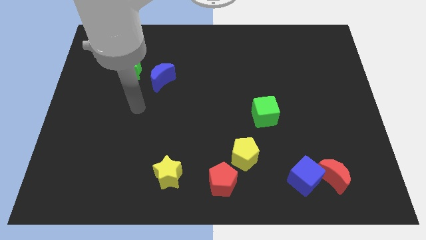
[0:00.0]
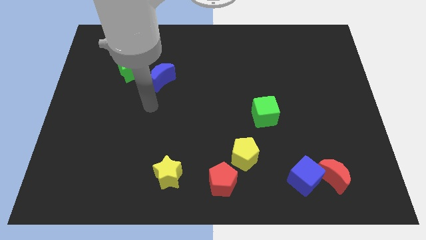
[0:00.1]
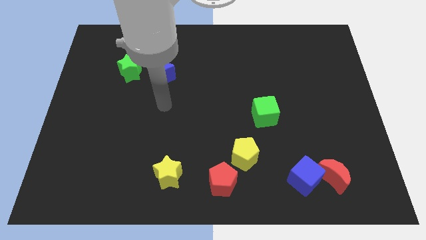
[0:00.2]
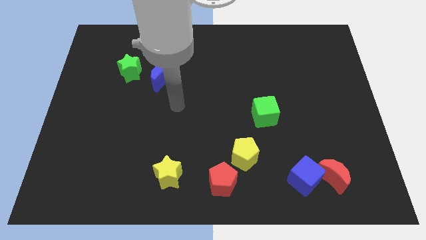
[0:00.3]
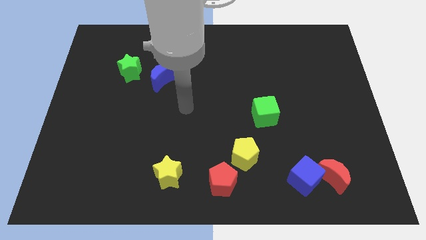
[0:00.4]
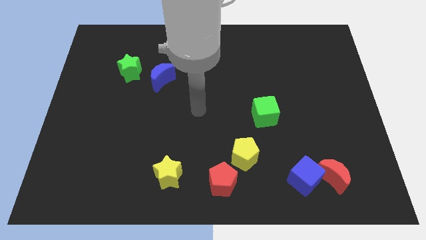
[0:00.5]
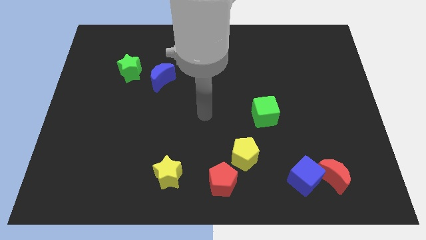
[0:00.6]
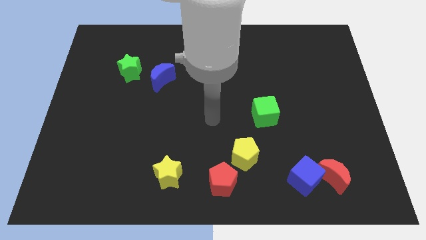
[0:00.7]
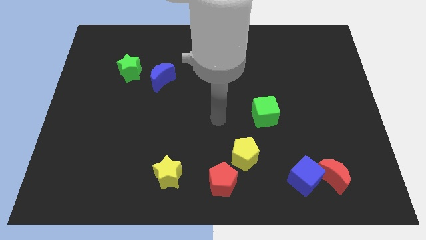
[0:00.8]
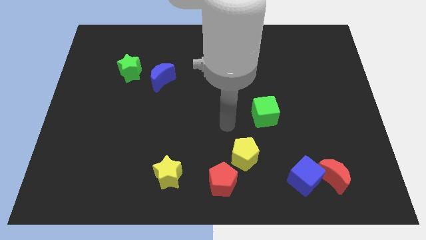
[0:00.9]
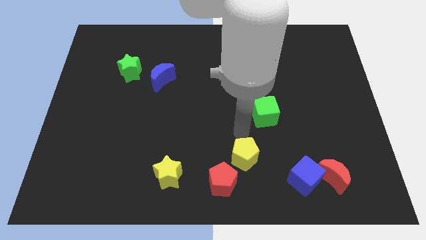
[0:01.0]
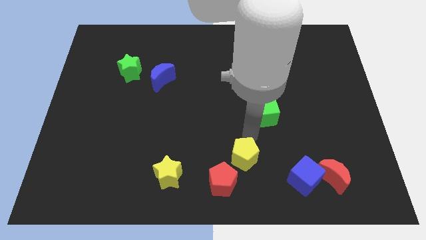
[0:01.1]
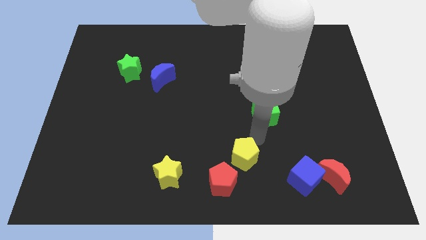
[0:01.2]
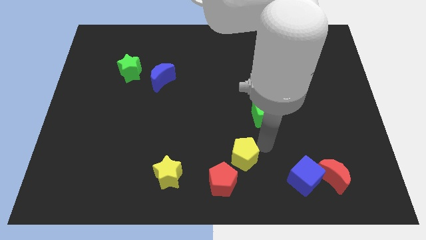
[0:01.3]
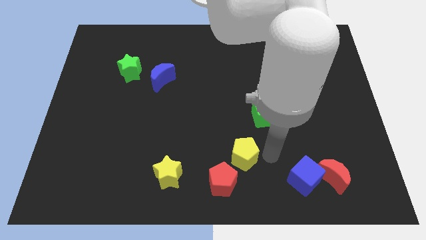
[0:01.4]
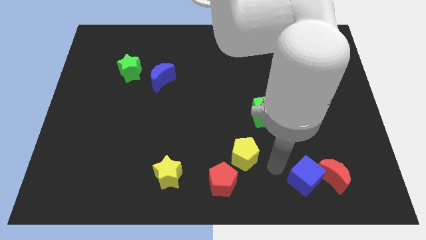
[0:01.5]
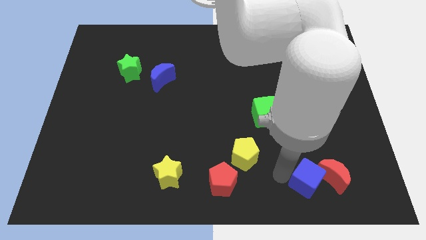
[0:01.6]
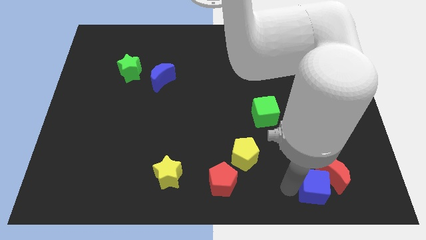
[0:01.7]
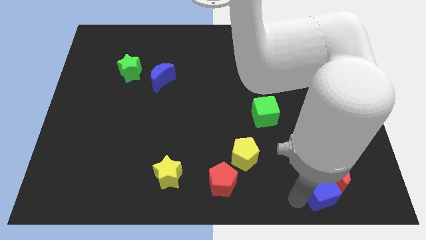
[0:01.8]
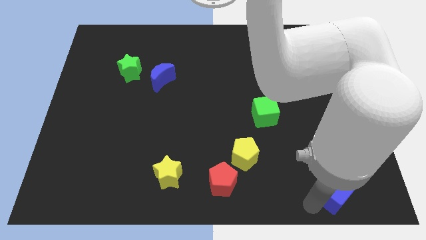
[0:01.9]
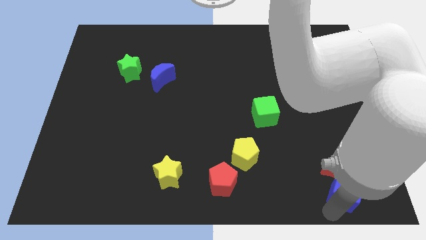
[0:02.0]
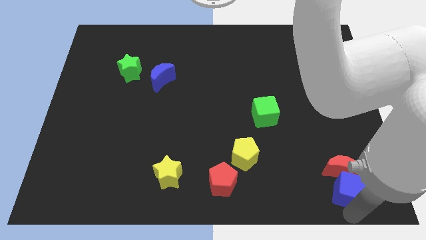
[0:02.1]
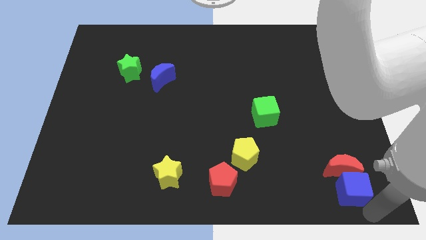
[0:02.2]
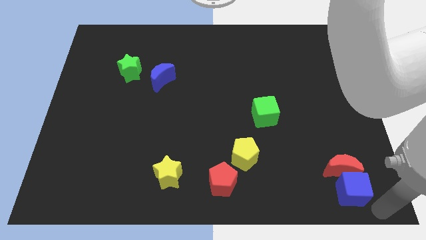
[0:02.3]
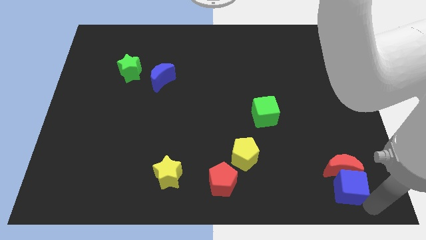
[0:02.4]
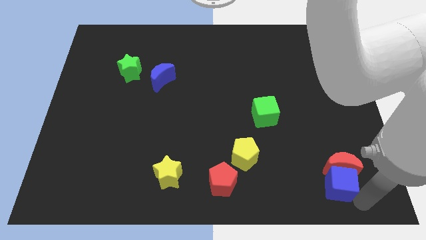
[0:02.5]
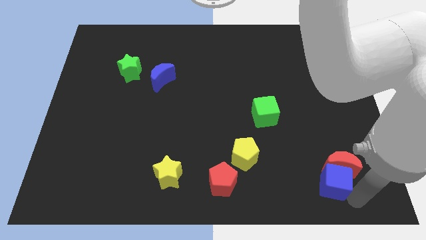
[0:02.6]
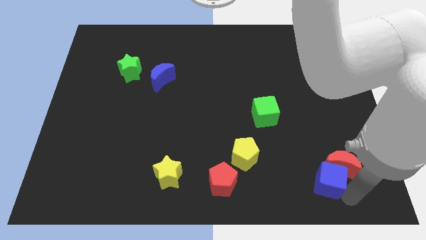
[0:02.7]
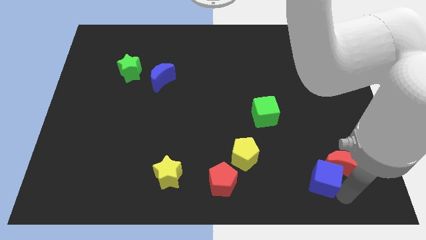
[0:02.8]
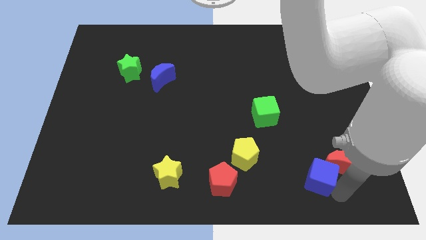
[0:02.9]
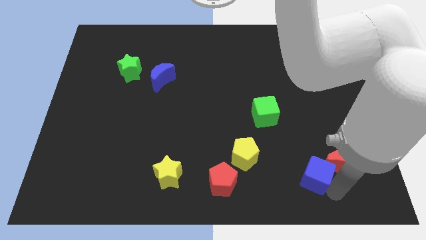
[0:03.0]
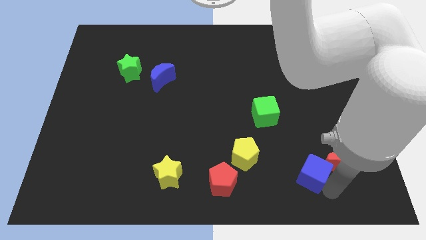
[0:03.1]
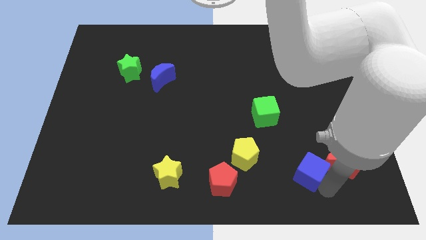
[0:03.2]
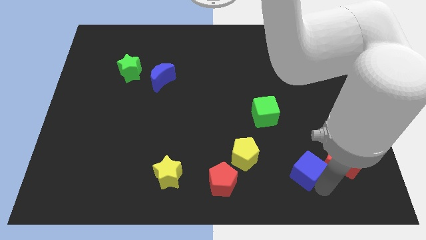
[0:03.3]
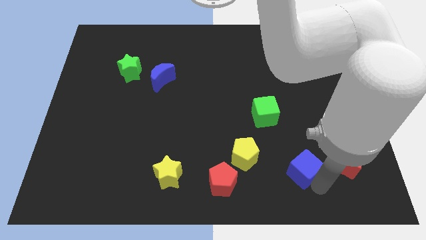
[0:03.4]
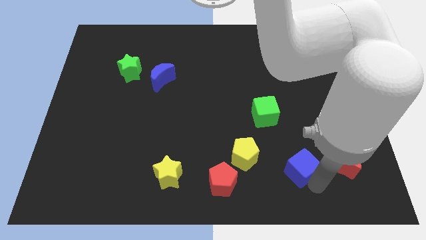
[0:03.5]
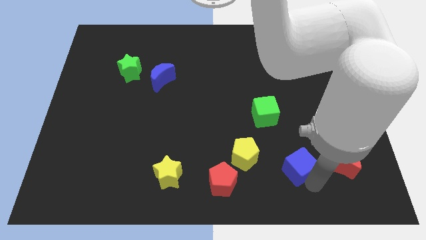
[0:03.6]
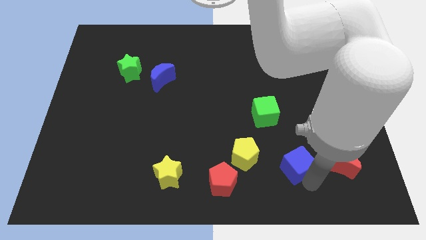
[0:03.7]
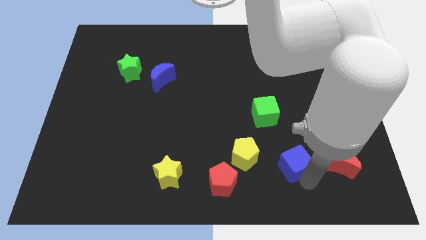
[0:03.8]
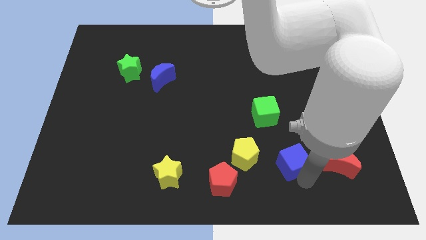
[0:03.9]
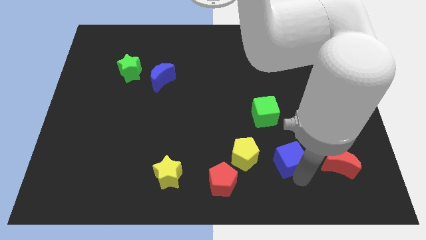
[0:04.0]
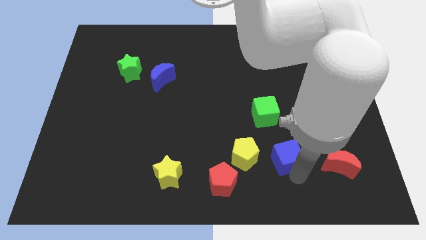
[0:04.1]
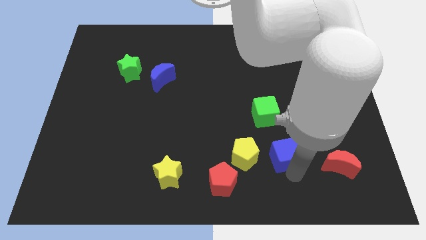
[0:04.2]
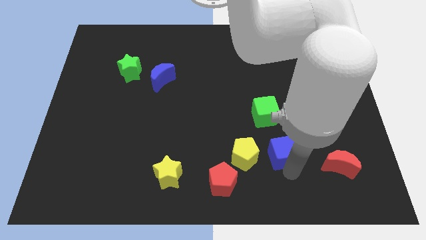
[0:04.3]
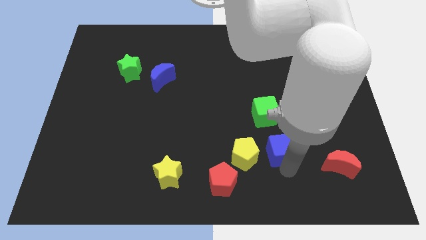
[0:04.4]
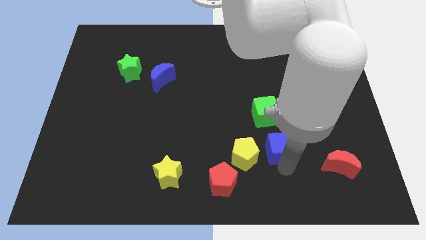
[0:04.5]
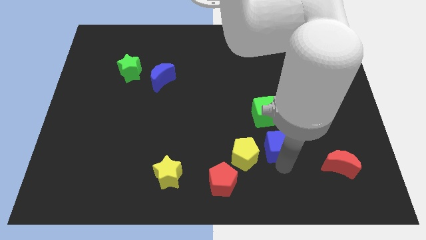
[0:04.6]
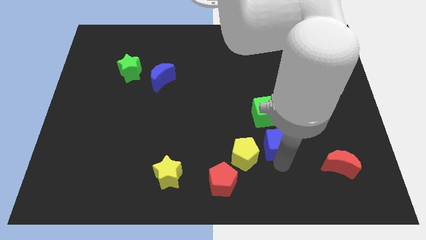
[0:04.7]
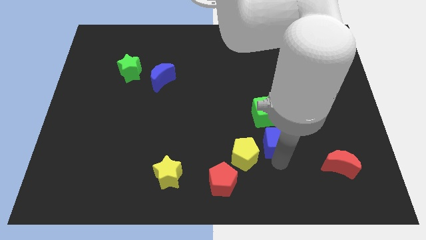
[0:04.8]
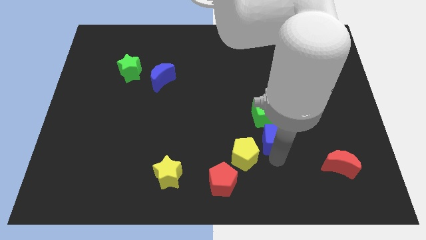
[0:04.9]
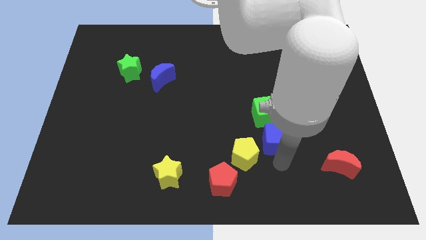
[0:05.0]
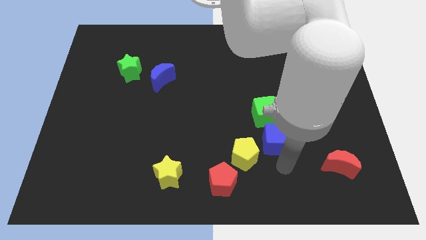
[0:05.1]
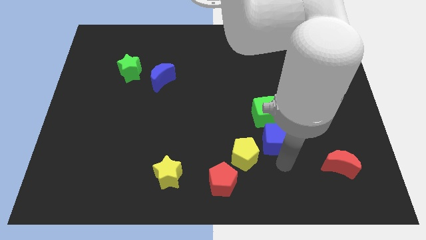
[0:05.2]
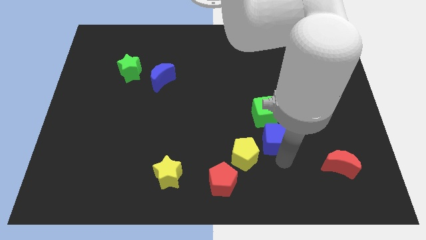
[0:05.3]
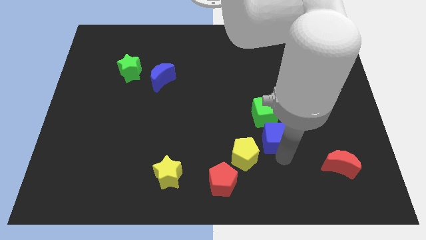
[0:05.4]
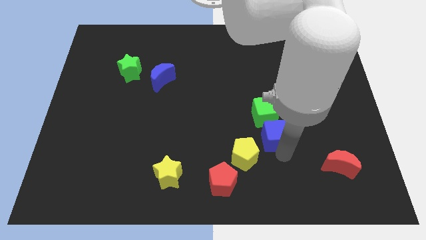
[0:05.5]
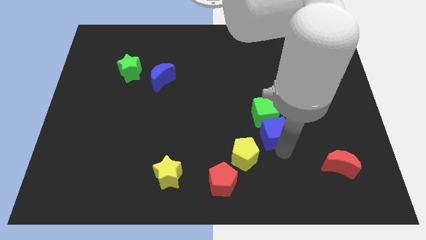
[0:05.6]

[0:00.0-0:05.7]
put the blue cube close to the green cube
